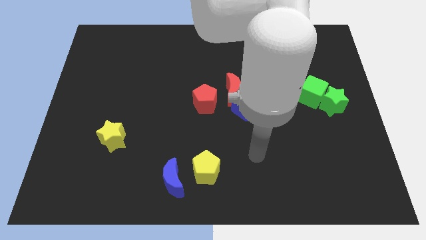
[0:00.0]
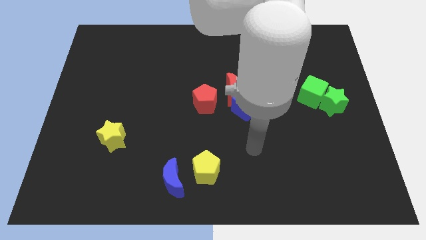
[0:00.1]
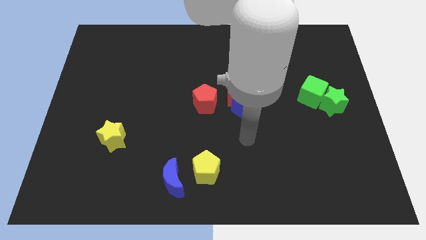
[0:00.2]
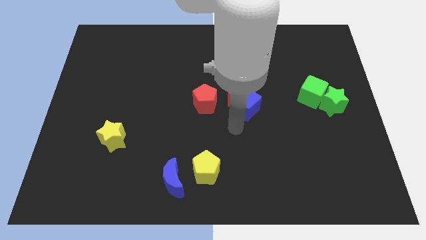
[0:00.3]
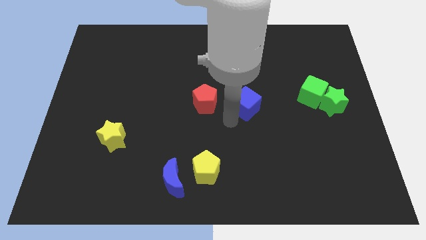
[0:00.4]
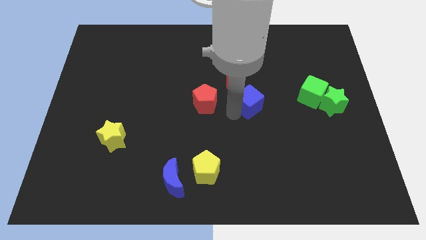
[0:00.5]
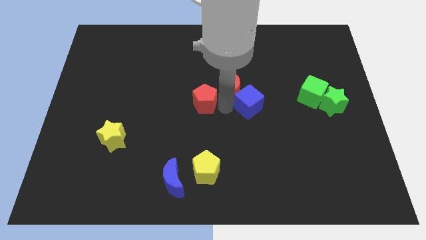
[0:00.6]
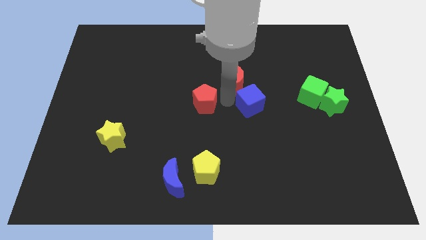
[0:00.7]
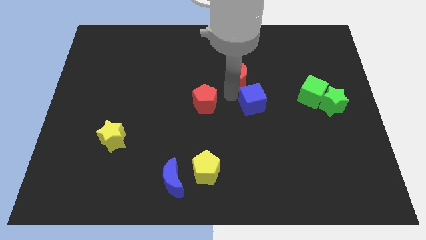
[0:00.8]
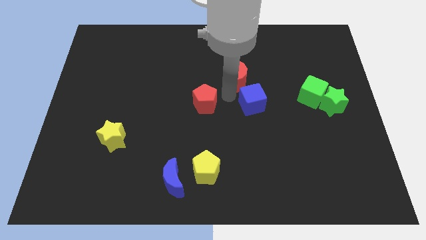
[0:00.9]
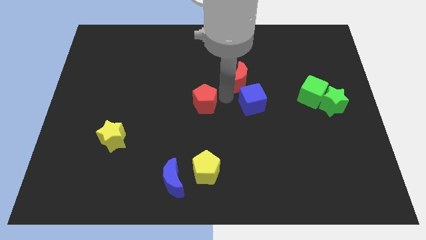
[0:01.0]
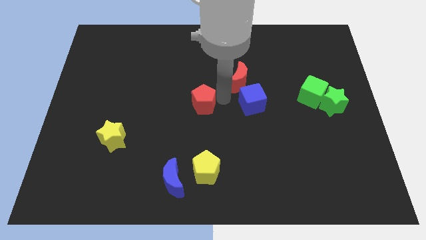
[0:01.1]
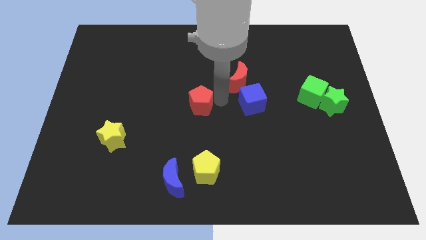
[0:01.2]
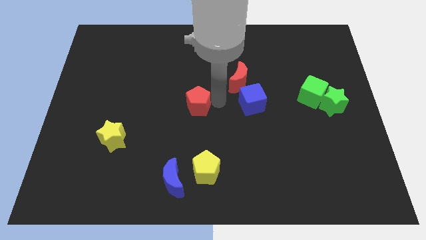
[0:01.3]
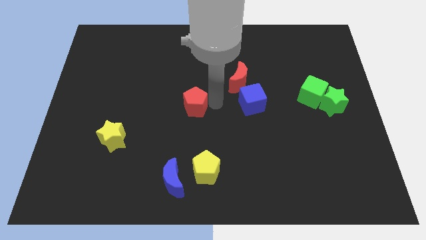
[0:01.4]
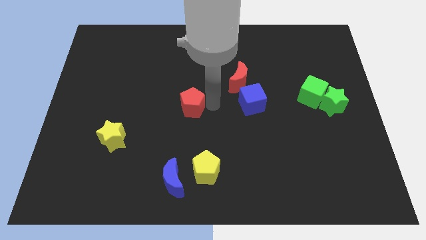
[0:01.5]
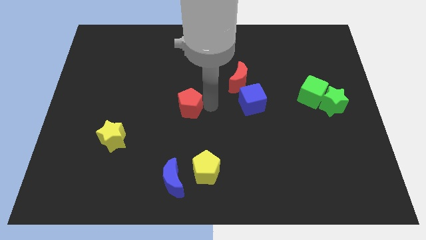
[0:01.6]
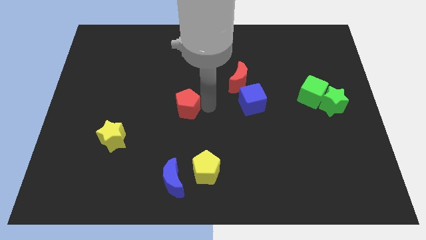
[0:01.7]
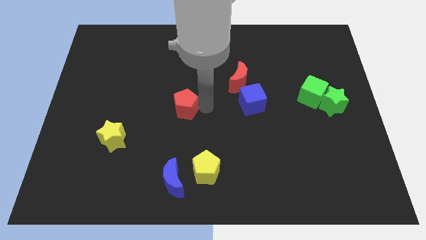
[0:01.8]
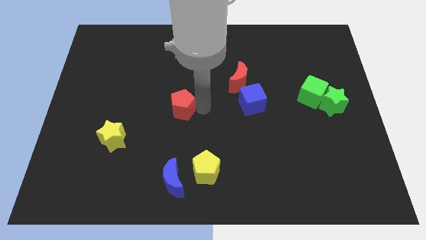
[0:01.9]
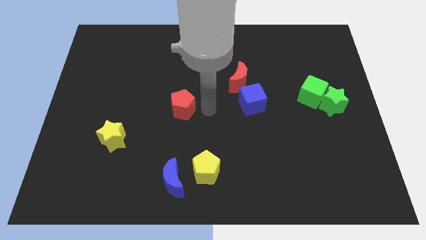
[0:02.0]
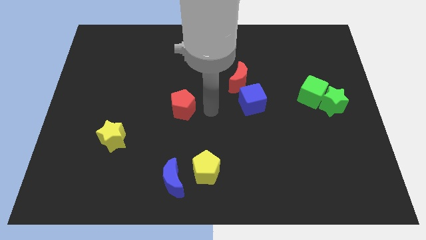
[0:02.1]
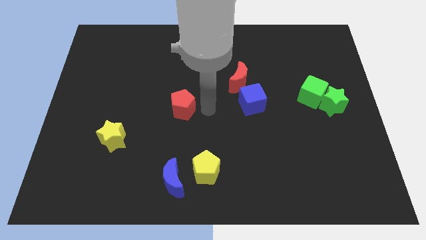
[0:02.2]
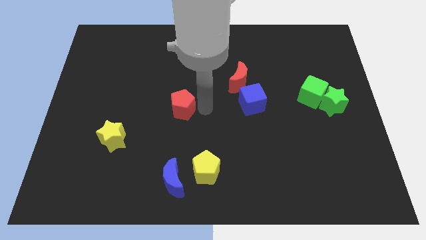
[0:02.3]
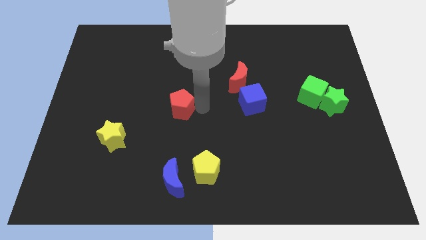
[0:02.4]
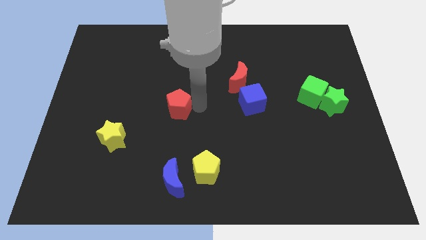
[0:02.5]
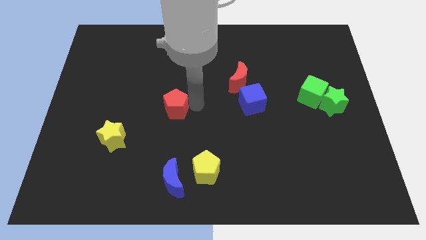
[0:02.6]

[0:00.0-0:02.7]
slightly move the red pentagon to the left

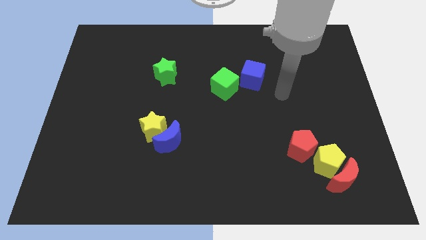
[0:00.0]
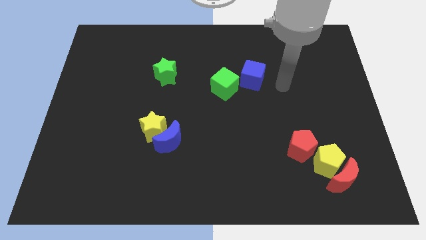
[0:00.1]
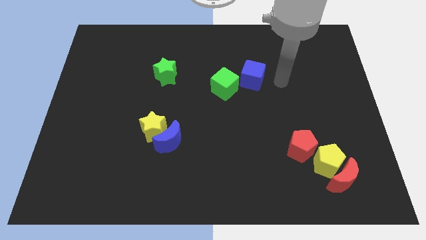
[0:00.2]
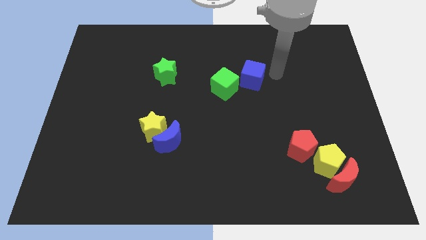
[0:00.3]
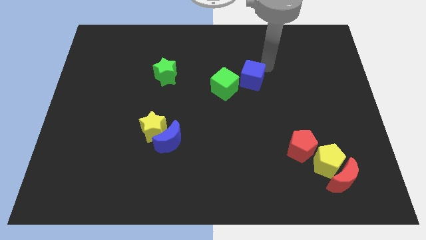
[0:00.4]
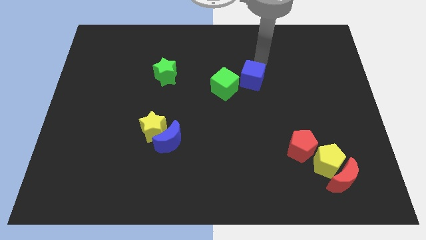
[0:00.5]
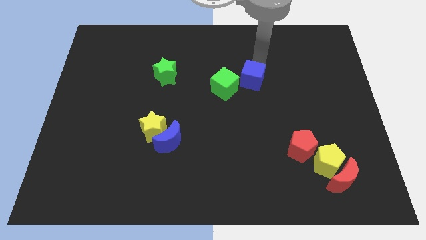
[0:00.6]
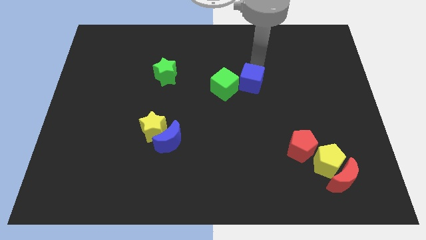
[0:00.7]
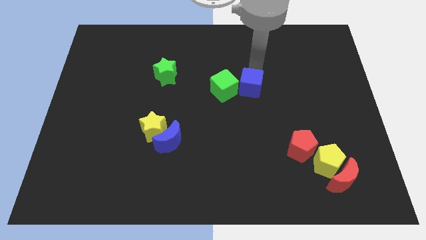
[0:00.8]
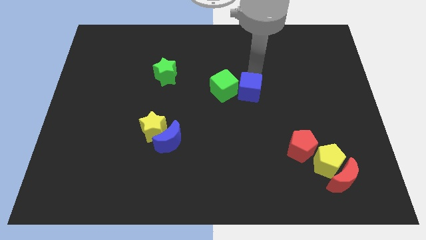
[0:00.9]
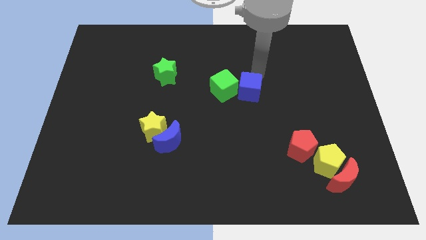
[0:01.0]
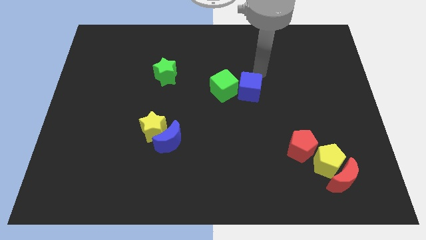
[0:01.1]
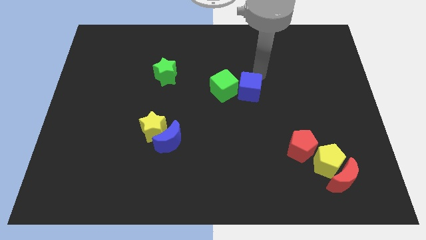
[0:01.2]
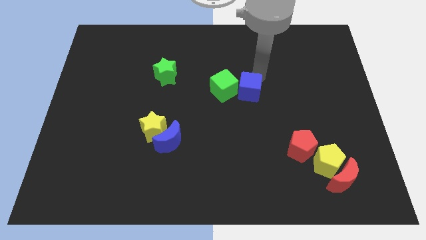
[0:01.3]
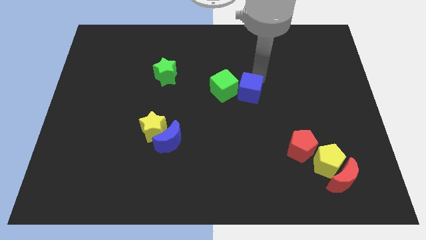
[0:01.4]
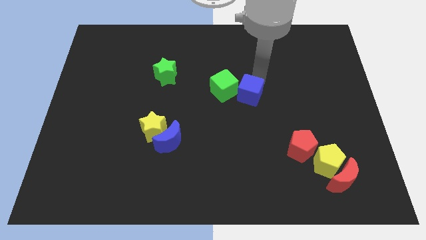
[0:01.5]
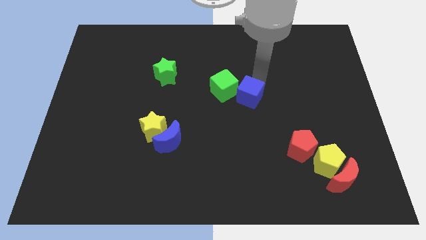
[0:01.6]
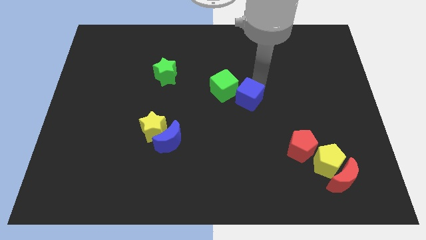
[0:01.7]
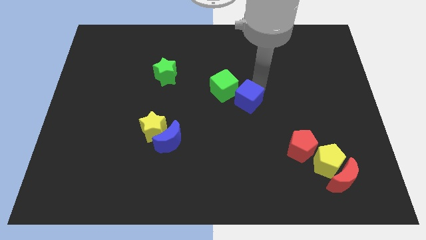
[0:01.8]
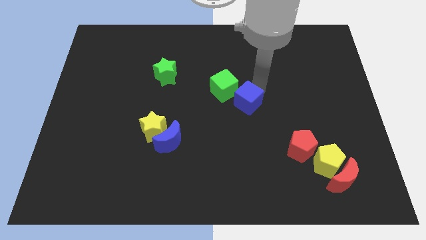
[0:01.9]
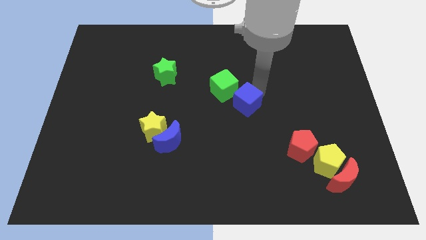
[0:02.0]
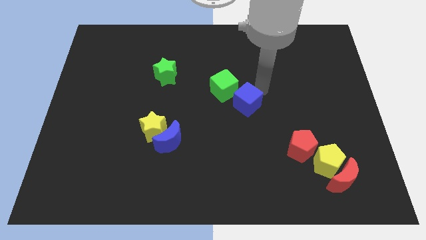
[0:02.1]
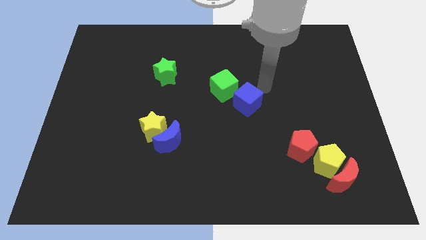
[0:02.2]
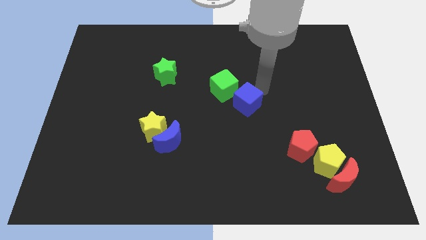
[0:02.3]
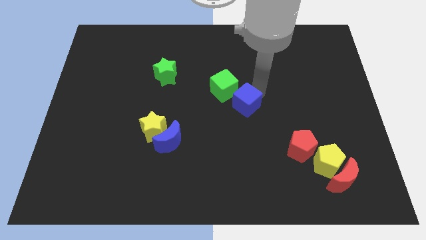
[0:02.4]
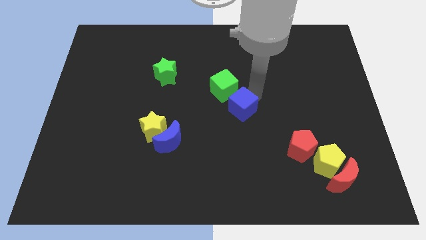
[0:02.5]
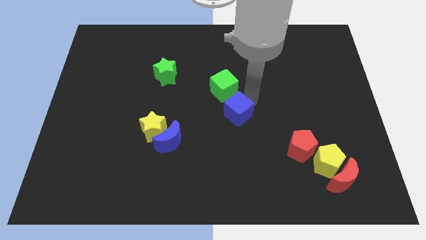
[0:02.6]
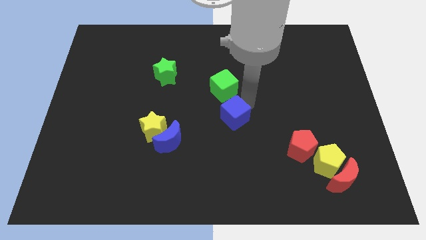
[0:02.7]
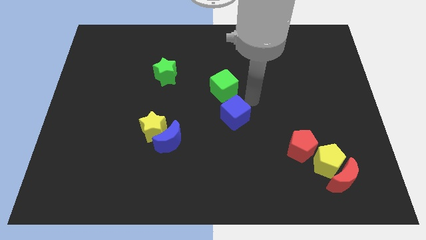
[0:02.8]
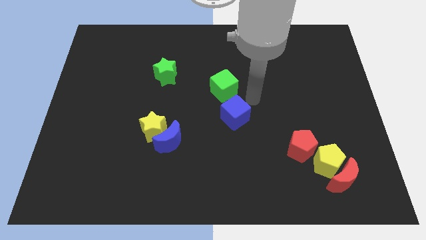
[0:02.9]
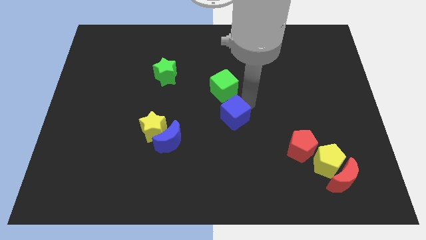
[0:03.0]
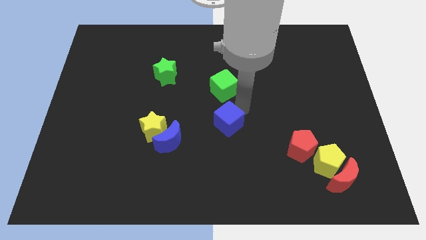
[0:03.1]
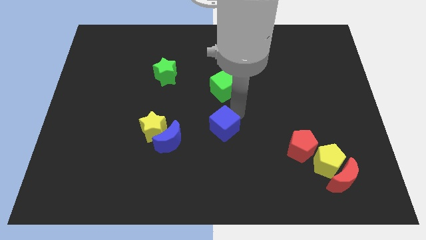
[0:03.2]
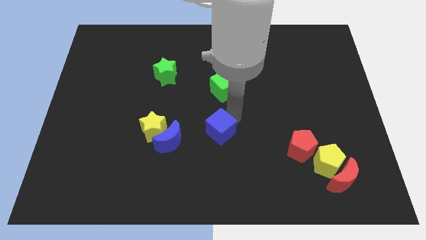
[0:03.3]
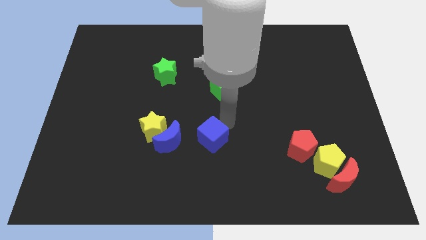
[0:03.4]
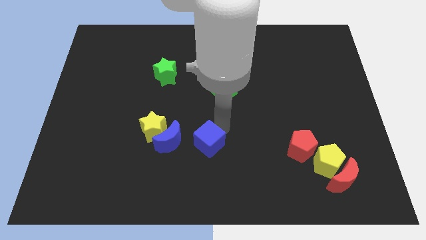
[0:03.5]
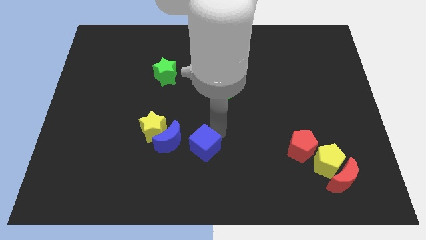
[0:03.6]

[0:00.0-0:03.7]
slide the blue cube down and to the left

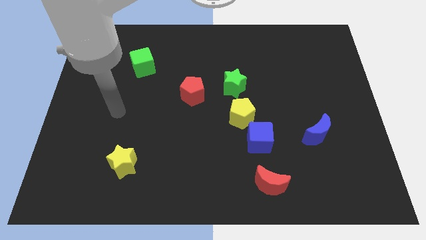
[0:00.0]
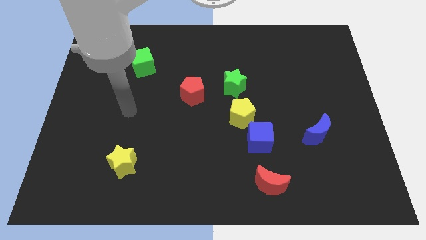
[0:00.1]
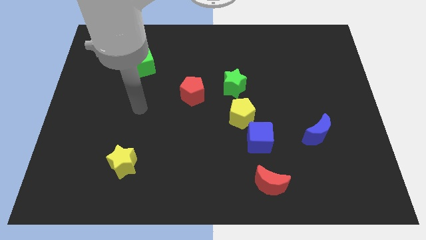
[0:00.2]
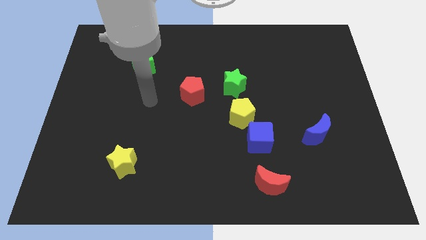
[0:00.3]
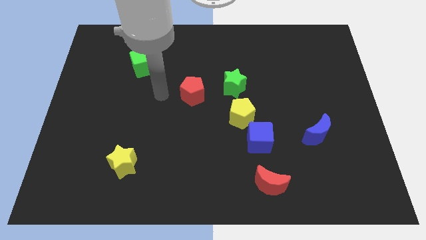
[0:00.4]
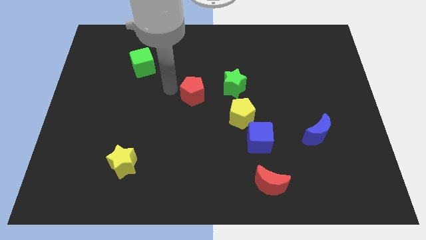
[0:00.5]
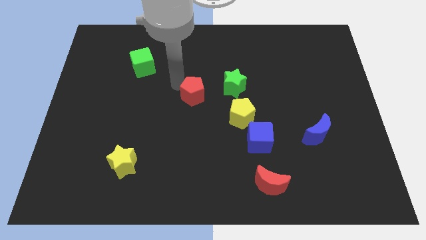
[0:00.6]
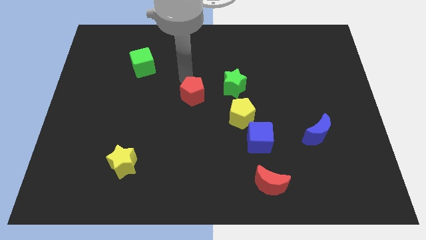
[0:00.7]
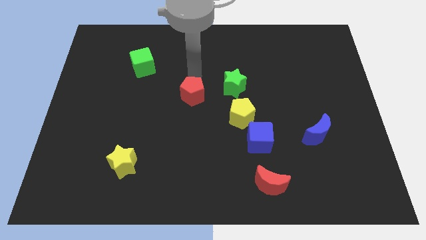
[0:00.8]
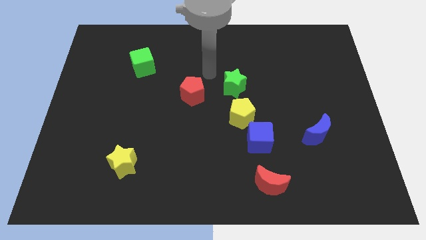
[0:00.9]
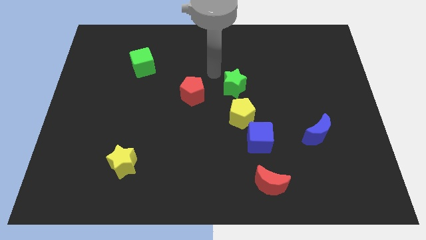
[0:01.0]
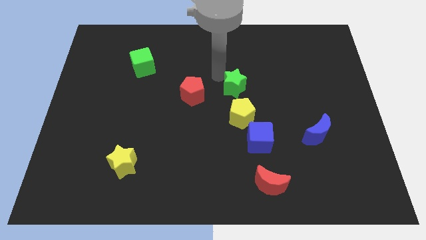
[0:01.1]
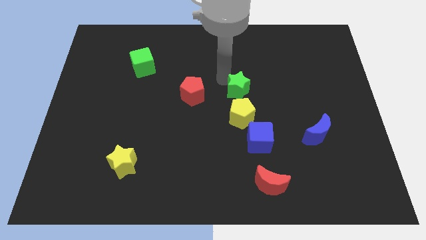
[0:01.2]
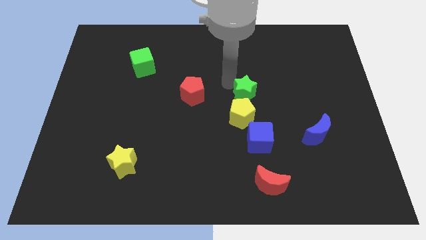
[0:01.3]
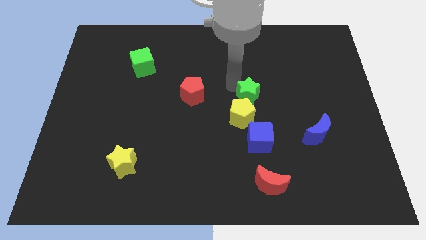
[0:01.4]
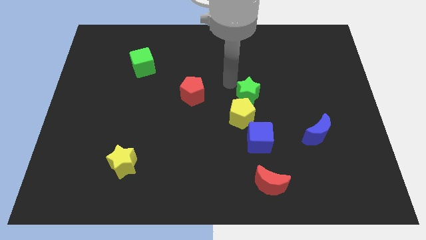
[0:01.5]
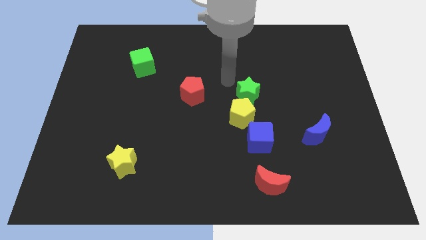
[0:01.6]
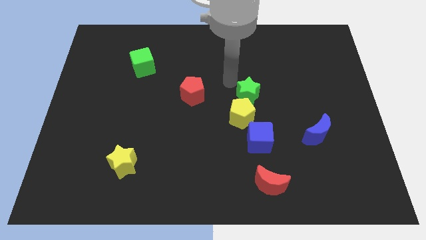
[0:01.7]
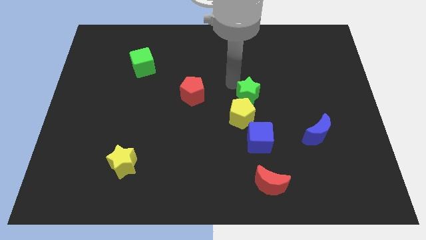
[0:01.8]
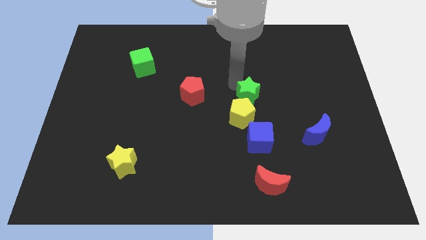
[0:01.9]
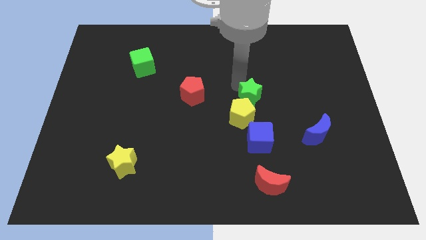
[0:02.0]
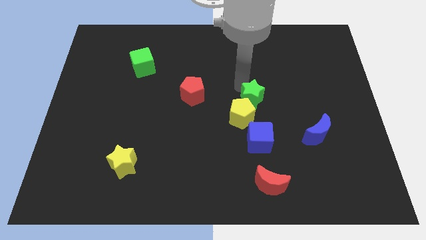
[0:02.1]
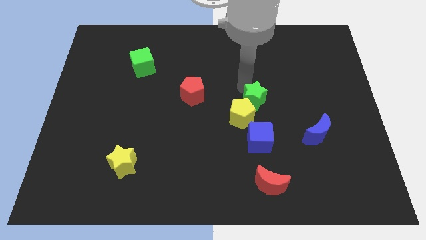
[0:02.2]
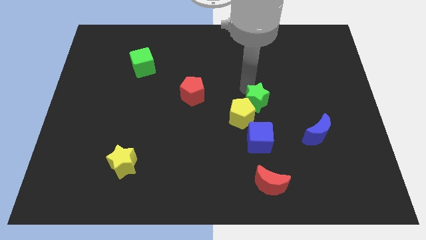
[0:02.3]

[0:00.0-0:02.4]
push the green star diagonally downwards and right a little
